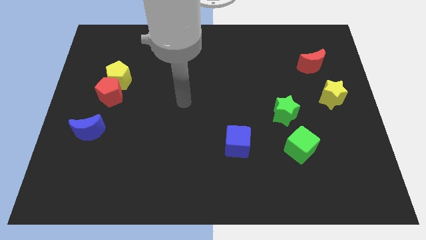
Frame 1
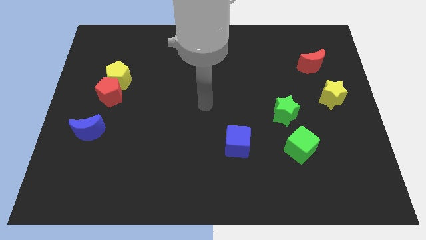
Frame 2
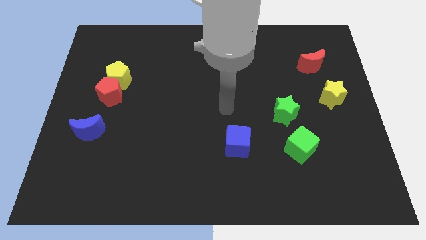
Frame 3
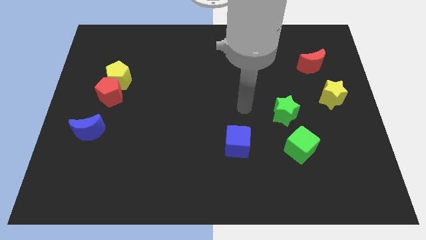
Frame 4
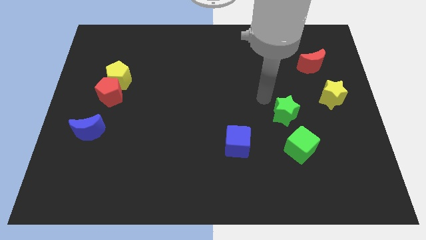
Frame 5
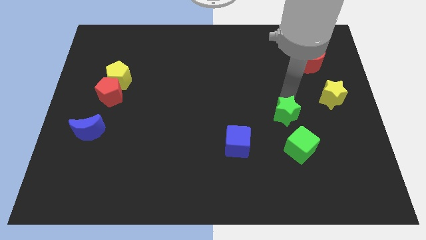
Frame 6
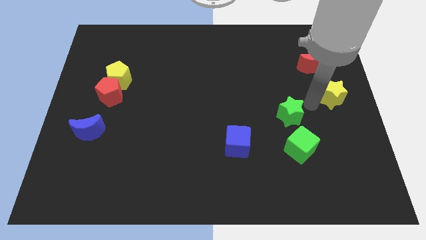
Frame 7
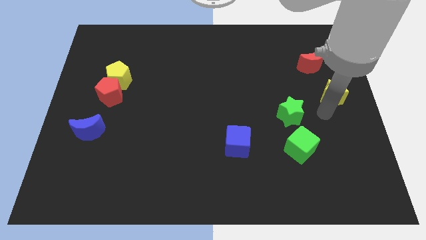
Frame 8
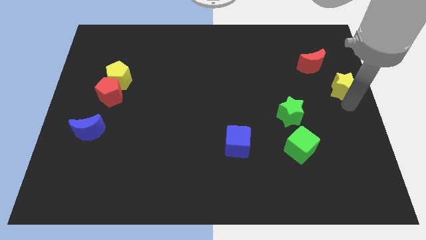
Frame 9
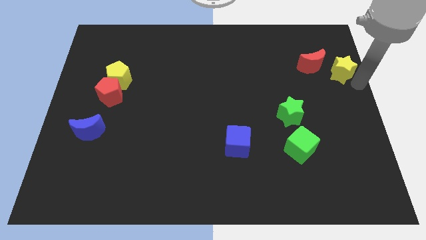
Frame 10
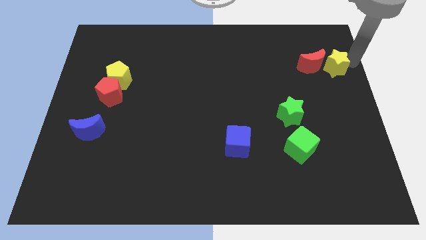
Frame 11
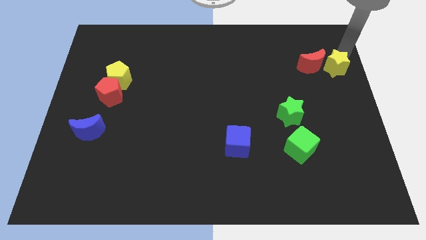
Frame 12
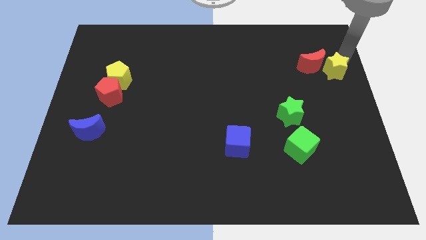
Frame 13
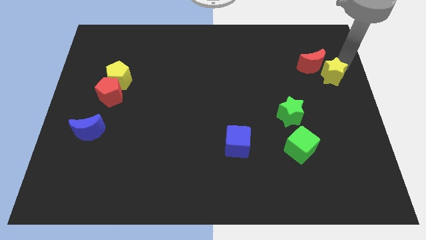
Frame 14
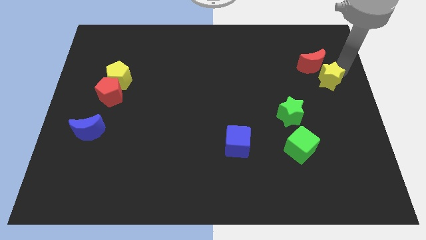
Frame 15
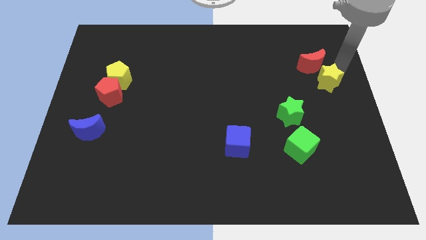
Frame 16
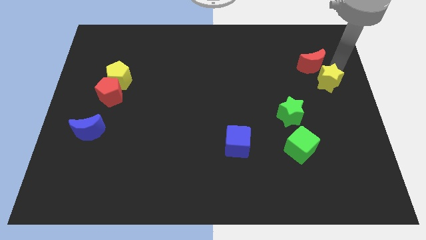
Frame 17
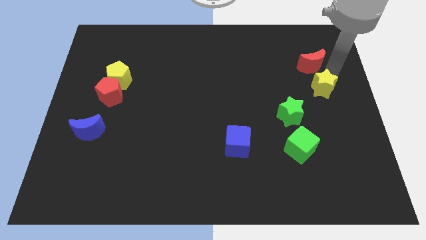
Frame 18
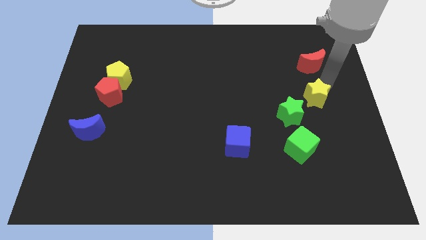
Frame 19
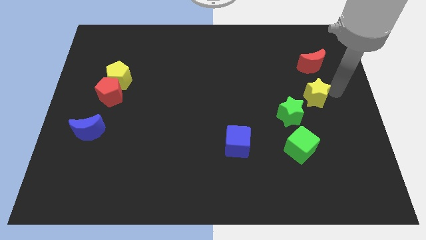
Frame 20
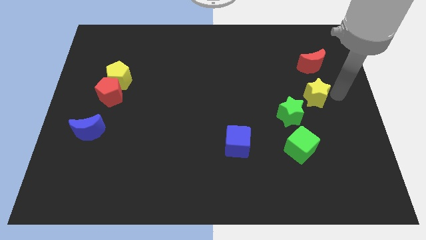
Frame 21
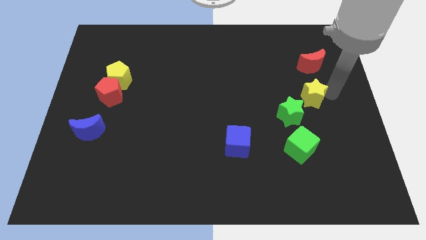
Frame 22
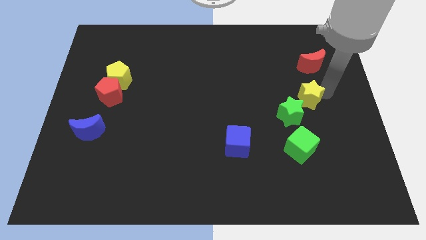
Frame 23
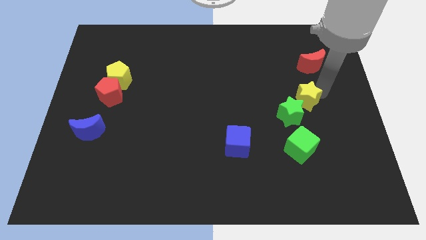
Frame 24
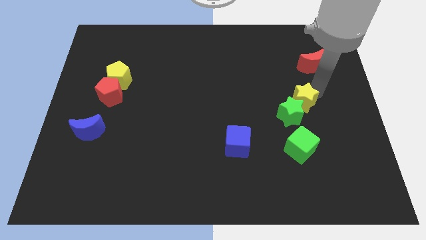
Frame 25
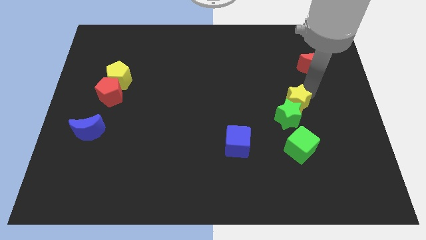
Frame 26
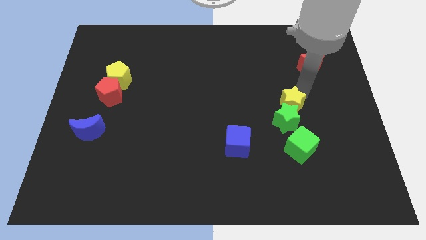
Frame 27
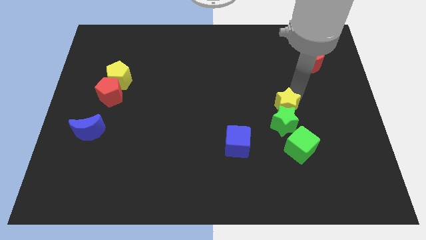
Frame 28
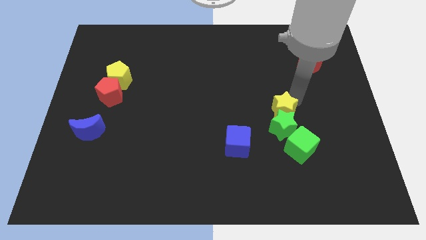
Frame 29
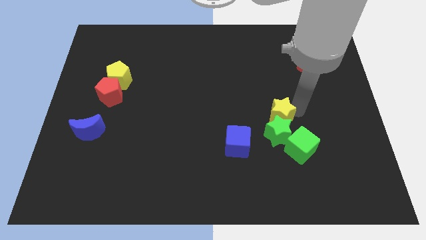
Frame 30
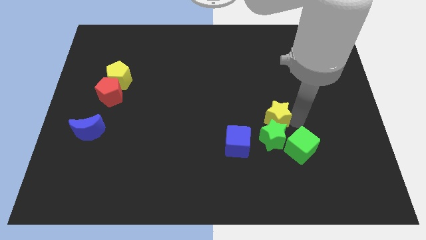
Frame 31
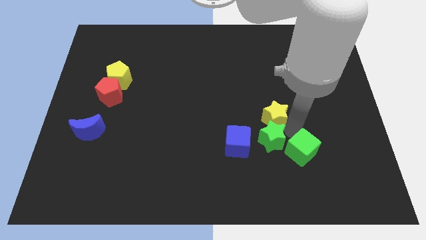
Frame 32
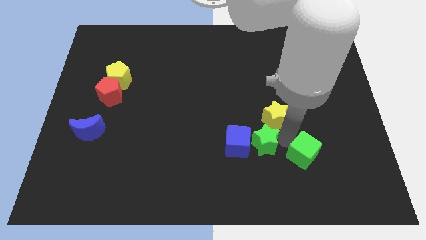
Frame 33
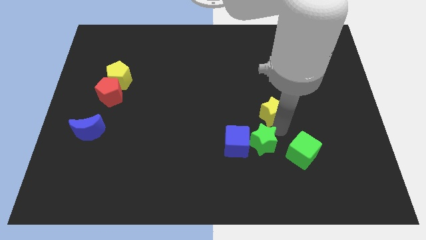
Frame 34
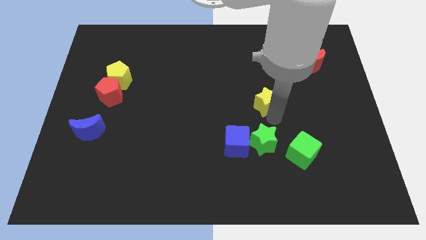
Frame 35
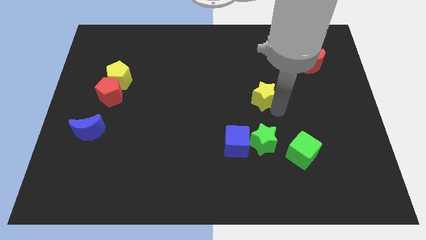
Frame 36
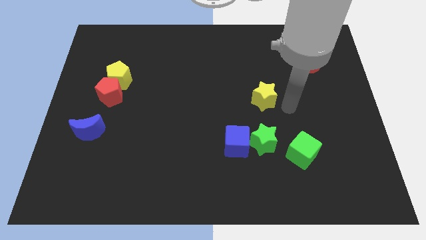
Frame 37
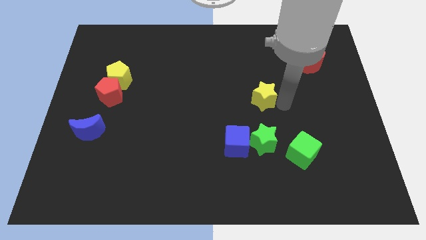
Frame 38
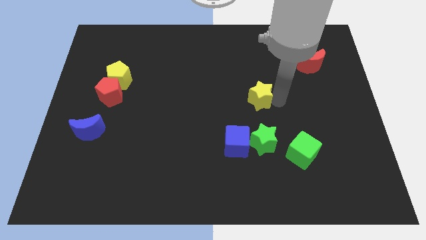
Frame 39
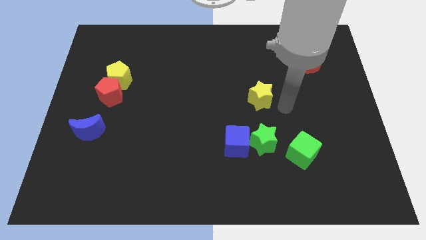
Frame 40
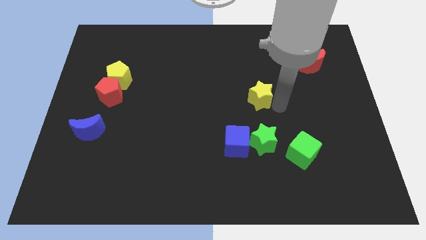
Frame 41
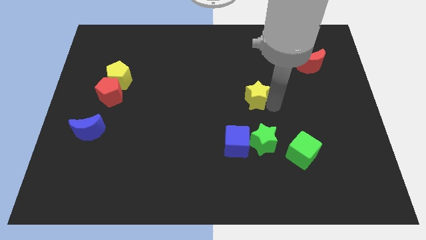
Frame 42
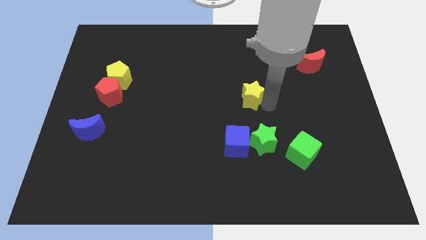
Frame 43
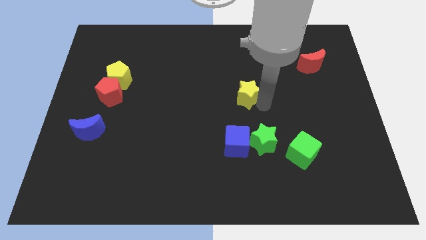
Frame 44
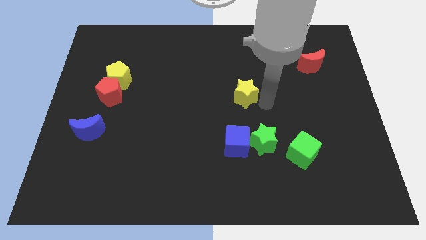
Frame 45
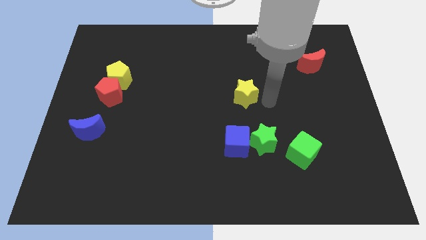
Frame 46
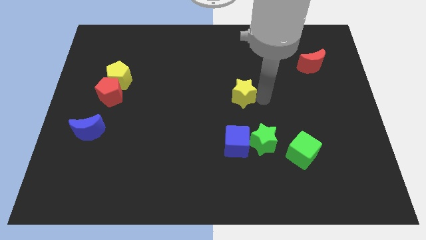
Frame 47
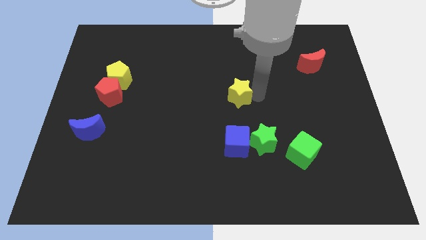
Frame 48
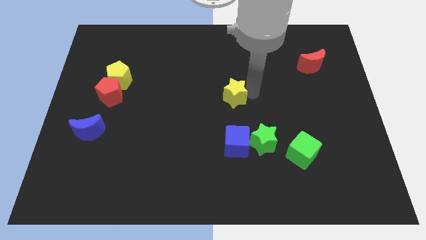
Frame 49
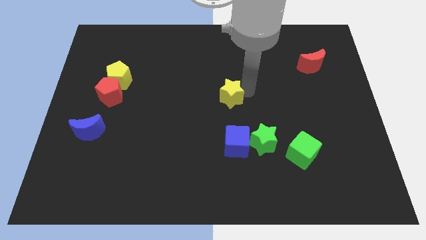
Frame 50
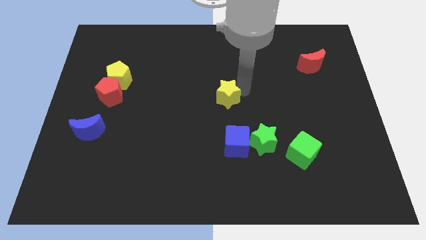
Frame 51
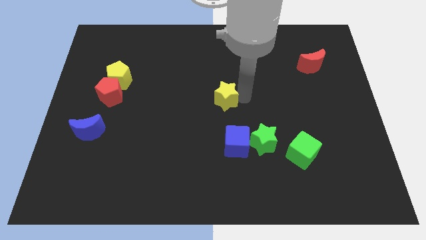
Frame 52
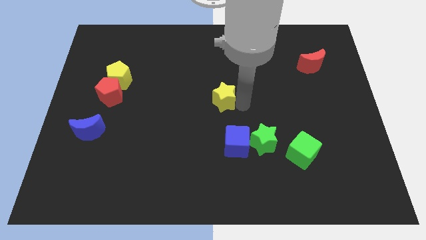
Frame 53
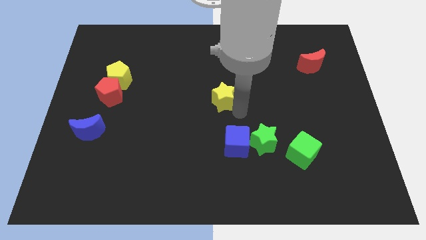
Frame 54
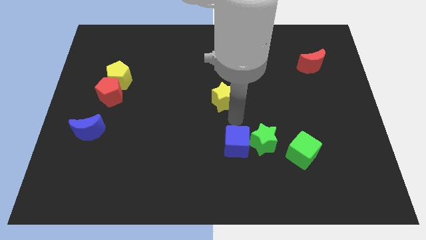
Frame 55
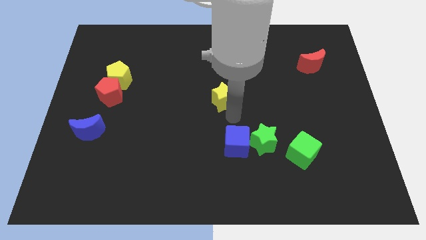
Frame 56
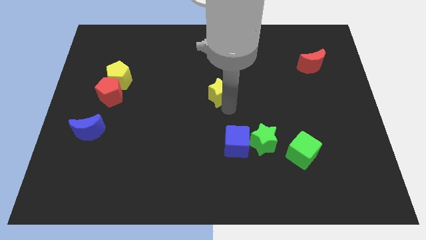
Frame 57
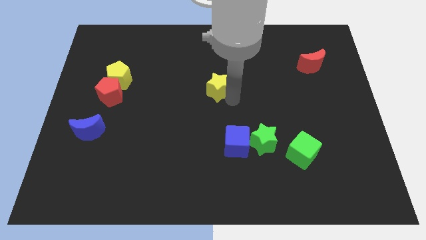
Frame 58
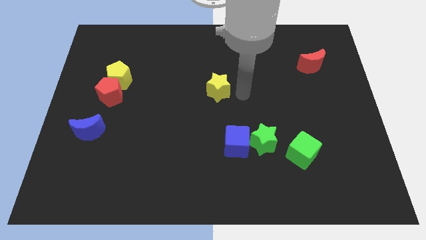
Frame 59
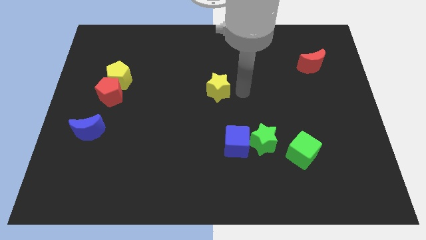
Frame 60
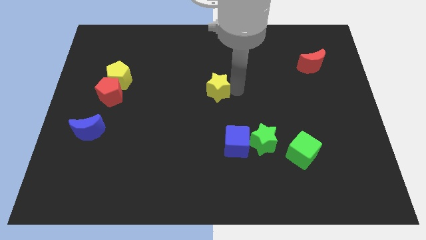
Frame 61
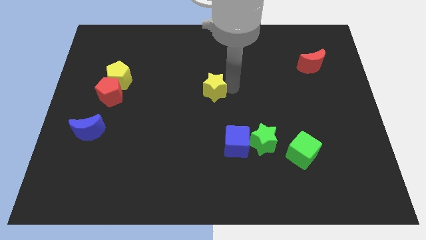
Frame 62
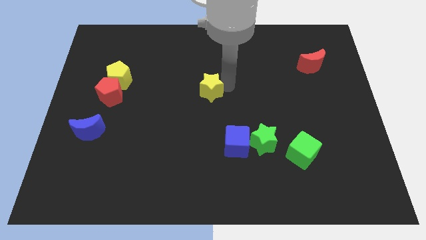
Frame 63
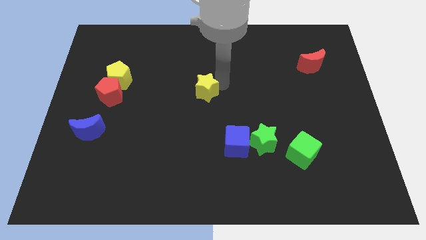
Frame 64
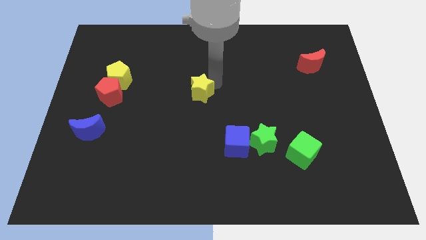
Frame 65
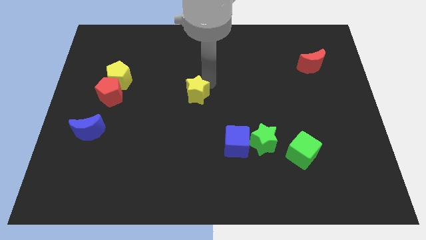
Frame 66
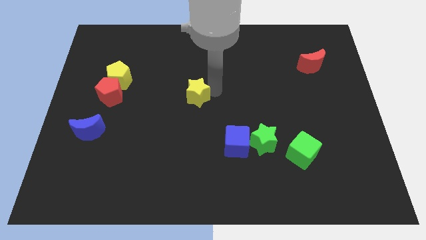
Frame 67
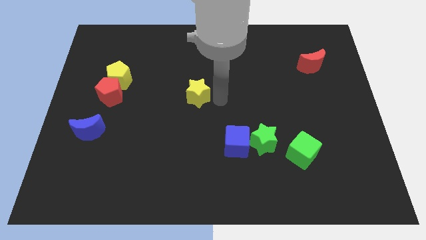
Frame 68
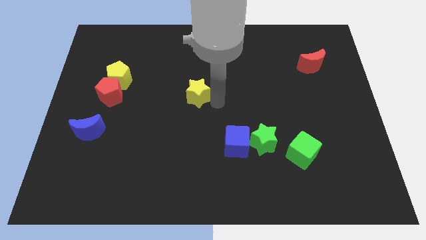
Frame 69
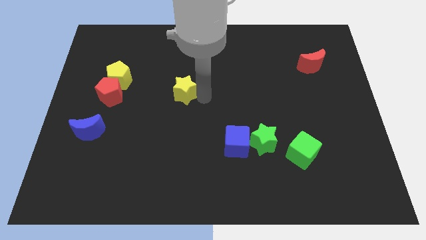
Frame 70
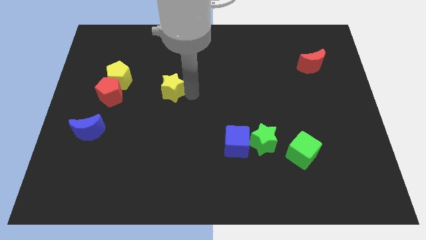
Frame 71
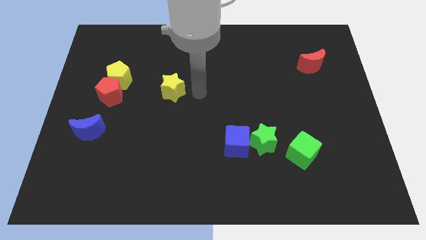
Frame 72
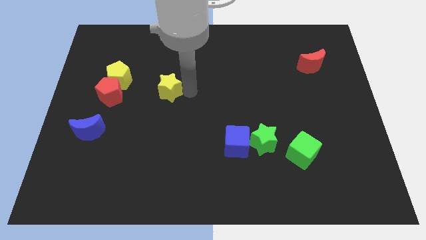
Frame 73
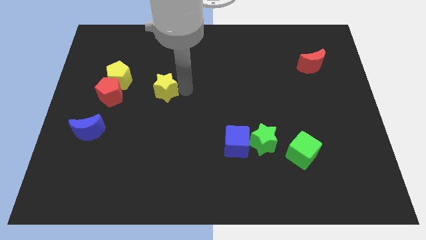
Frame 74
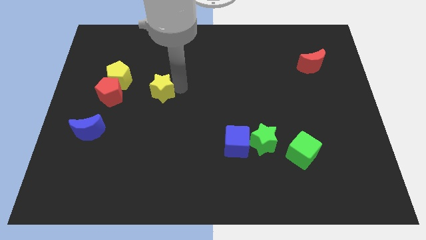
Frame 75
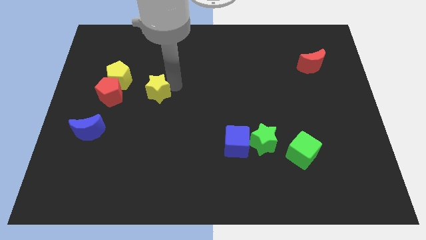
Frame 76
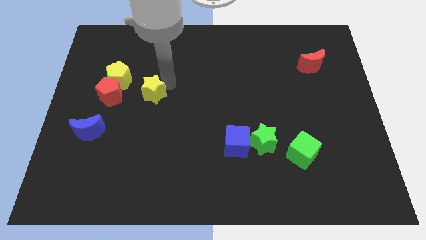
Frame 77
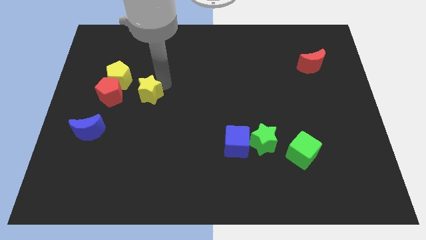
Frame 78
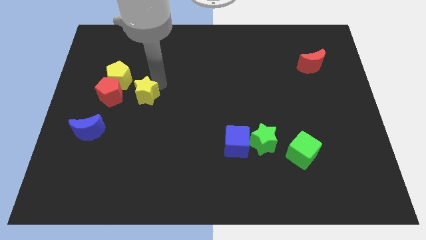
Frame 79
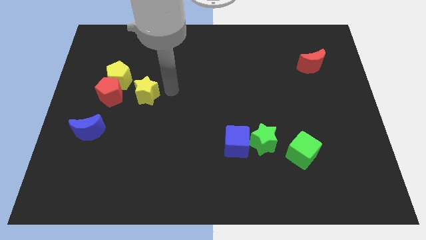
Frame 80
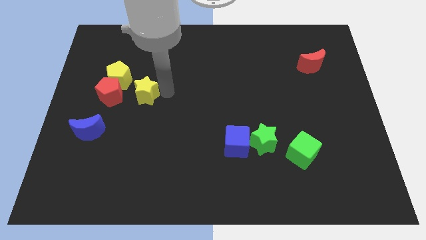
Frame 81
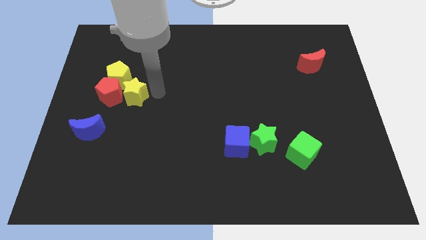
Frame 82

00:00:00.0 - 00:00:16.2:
put the yellow star next to the red pentagon
